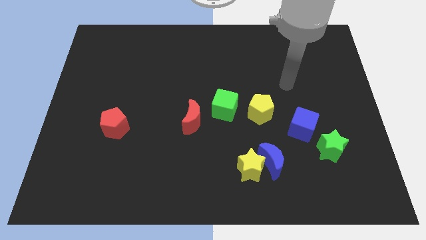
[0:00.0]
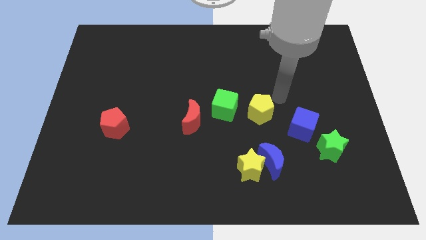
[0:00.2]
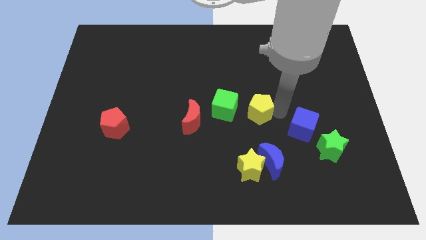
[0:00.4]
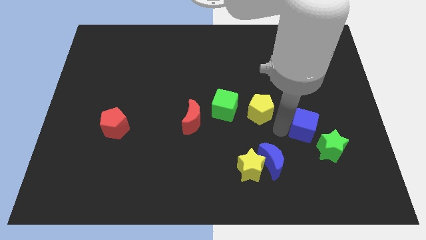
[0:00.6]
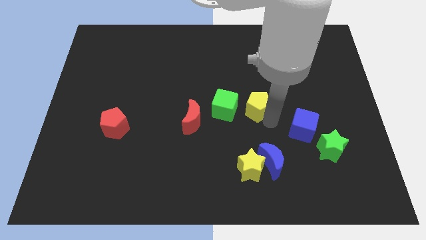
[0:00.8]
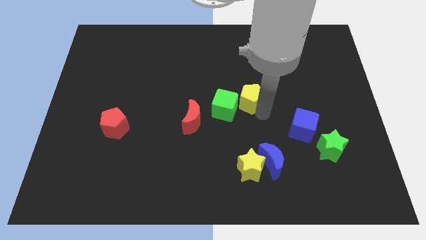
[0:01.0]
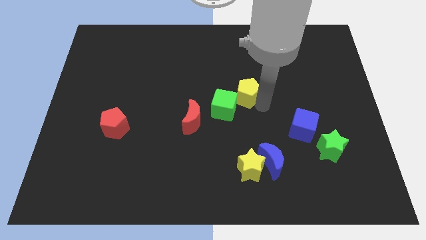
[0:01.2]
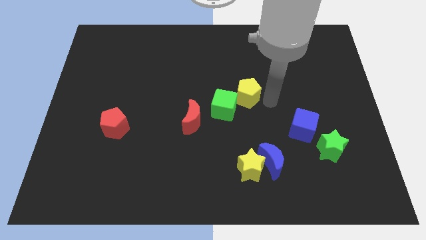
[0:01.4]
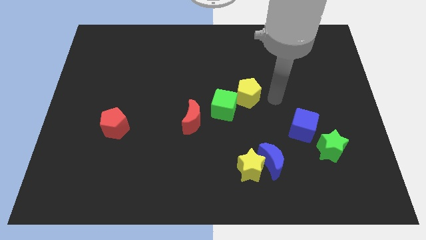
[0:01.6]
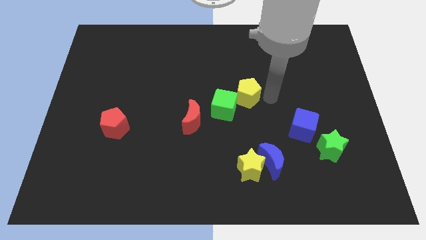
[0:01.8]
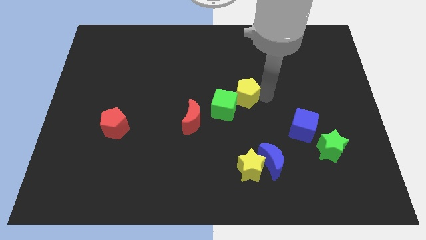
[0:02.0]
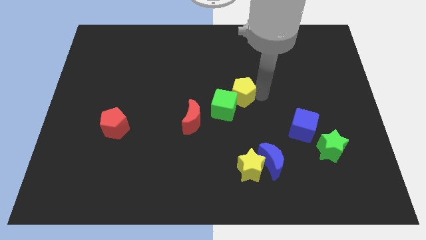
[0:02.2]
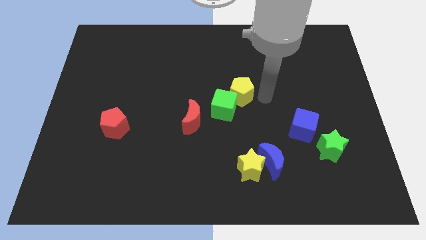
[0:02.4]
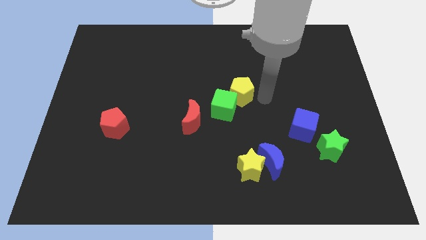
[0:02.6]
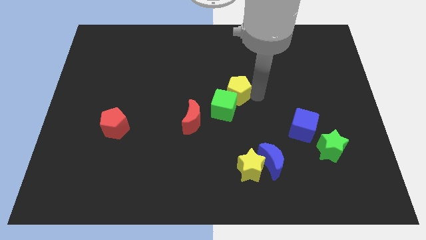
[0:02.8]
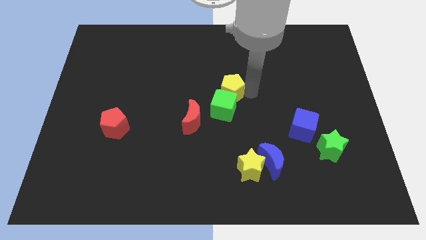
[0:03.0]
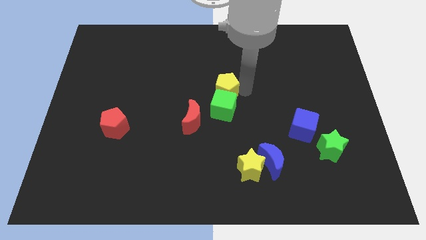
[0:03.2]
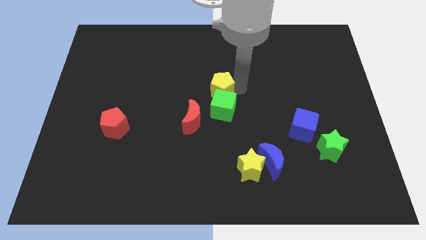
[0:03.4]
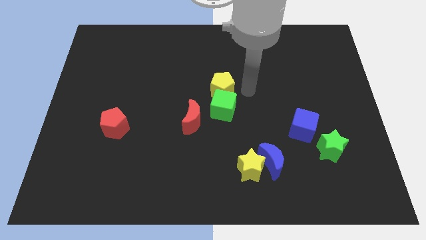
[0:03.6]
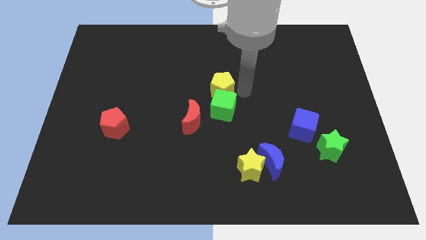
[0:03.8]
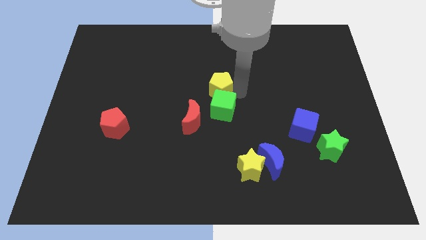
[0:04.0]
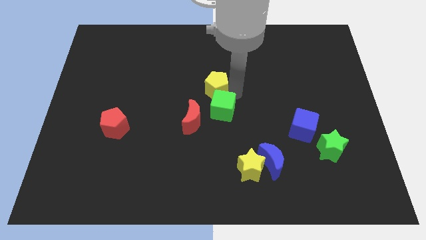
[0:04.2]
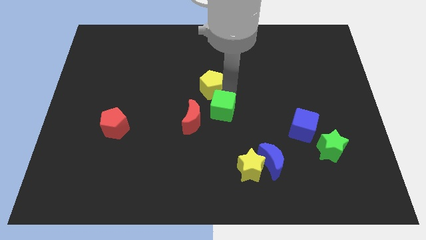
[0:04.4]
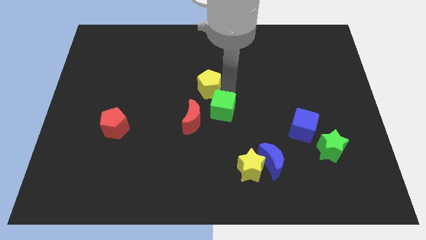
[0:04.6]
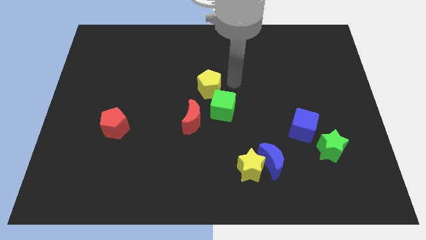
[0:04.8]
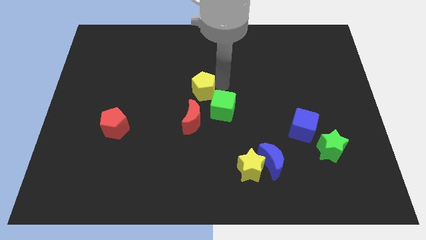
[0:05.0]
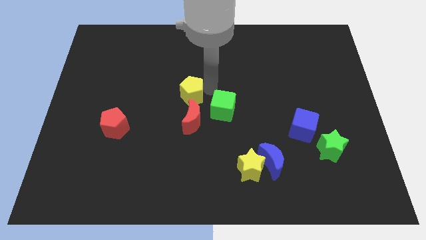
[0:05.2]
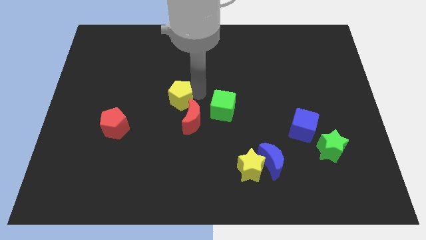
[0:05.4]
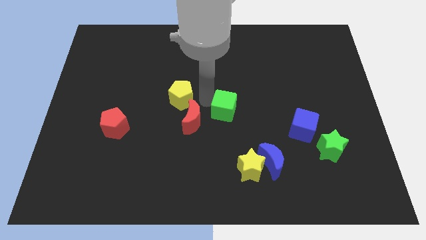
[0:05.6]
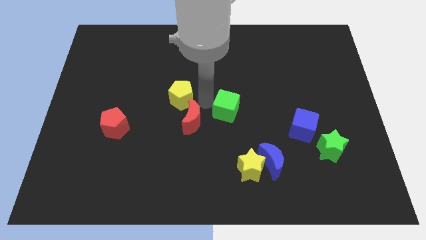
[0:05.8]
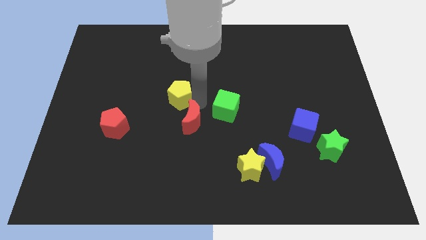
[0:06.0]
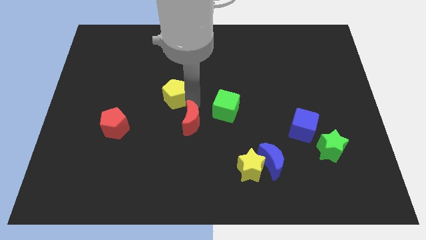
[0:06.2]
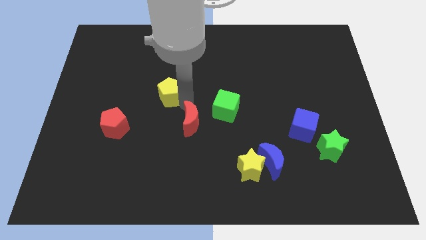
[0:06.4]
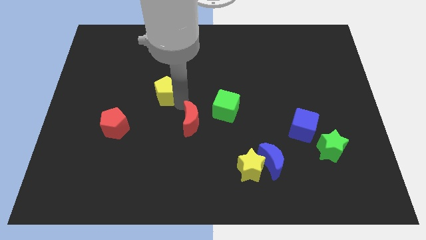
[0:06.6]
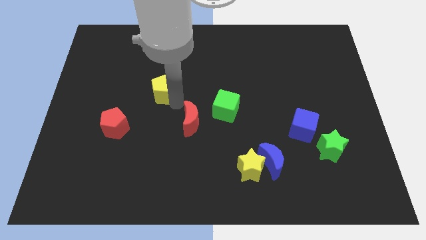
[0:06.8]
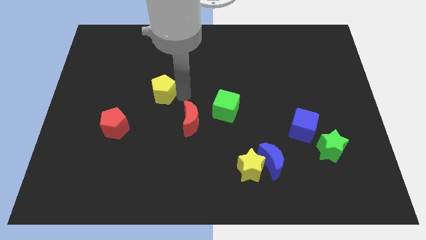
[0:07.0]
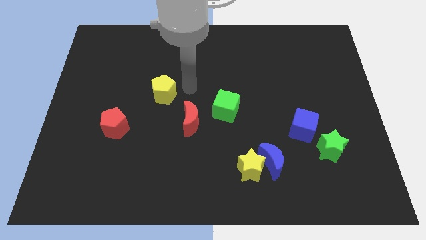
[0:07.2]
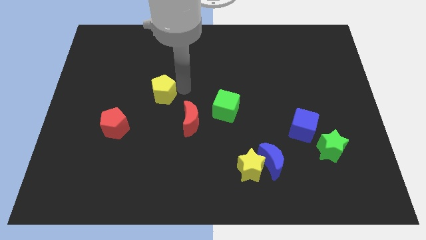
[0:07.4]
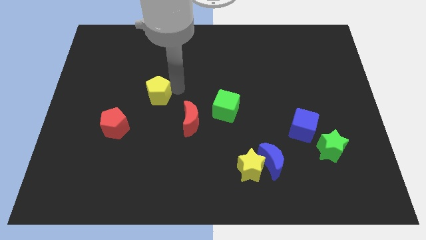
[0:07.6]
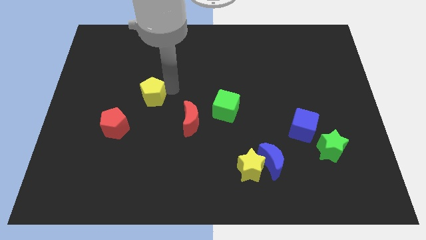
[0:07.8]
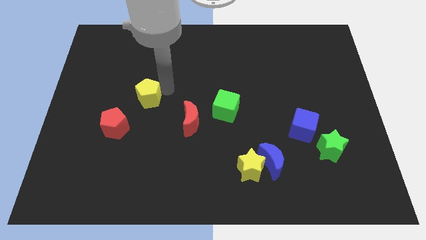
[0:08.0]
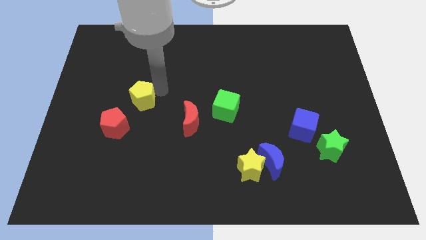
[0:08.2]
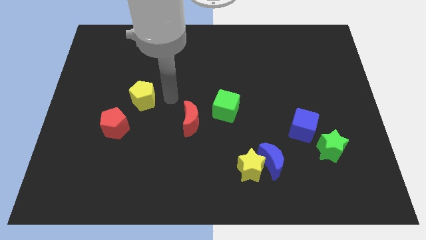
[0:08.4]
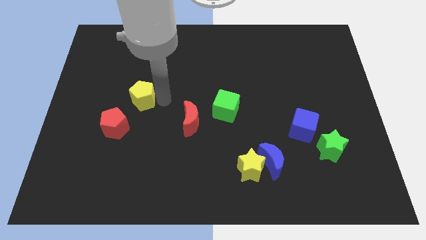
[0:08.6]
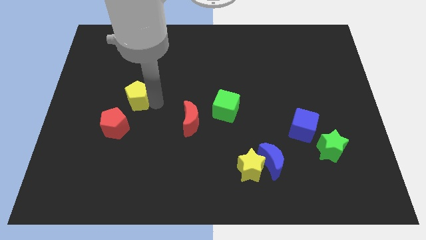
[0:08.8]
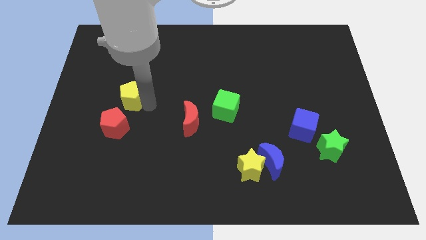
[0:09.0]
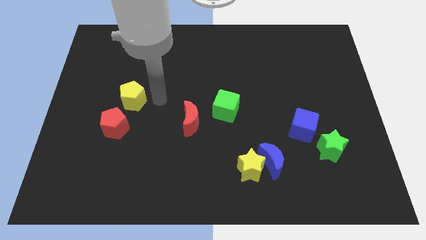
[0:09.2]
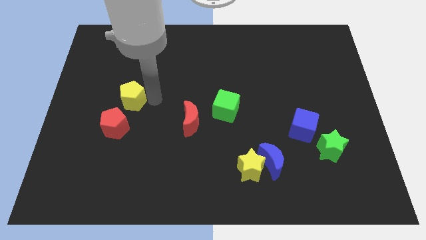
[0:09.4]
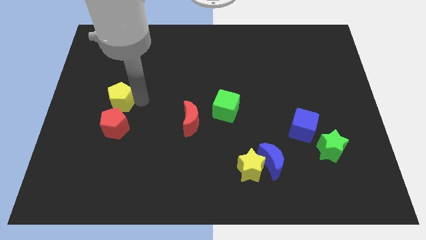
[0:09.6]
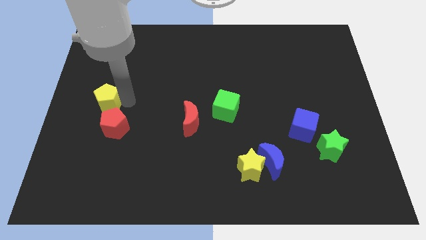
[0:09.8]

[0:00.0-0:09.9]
move the yellow pentagon to the left side

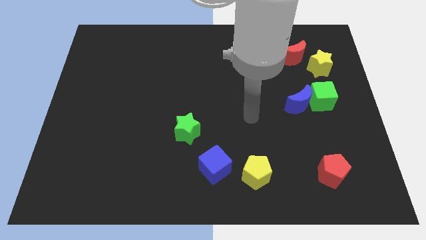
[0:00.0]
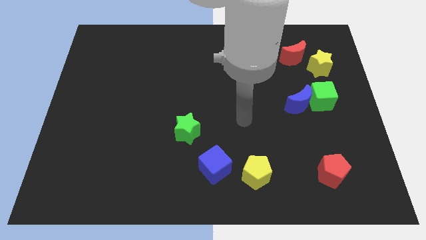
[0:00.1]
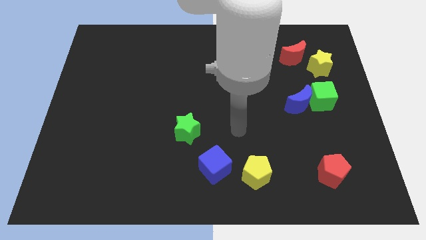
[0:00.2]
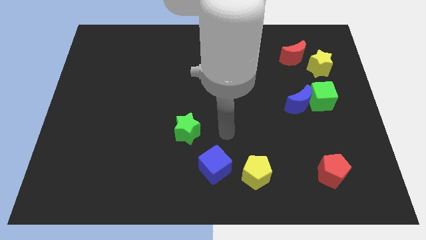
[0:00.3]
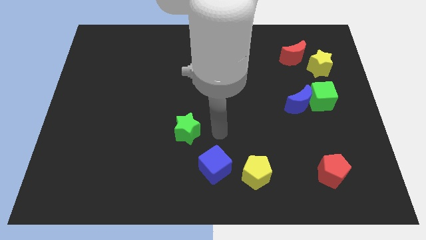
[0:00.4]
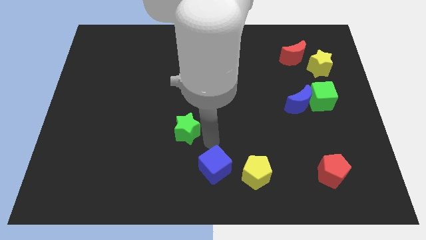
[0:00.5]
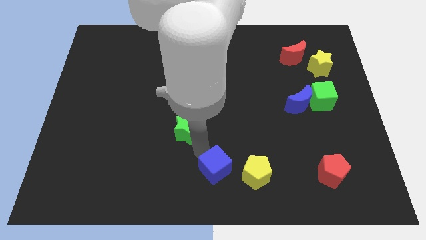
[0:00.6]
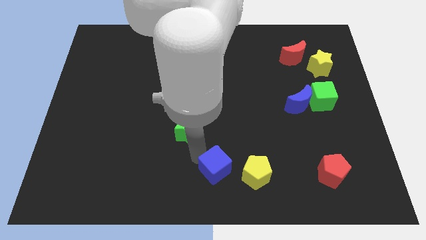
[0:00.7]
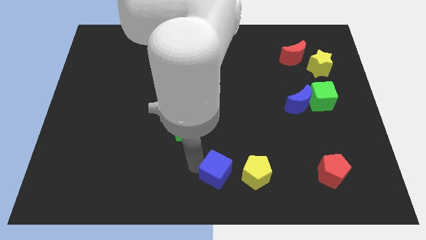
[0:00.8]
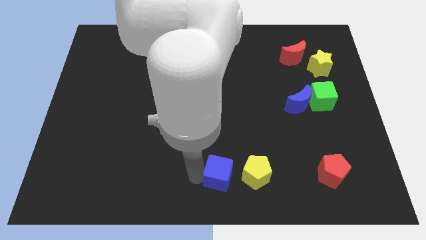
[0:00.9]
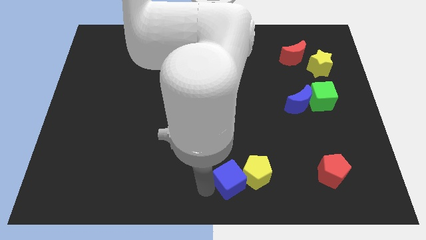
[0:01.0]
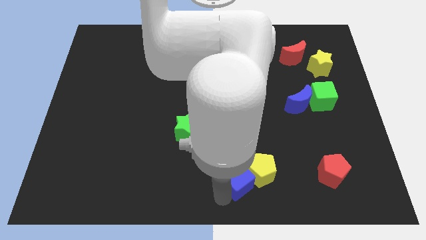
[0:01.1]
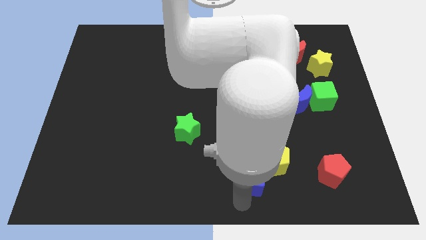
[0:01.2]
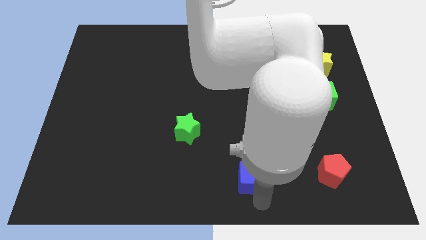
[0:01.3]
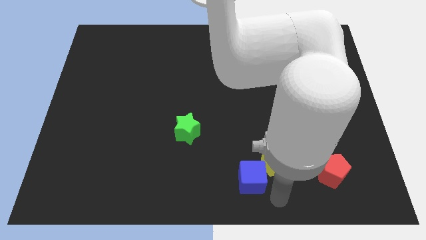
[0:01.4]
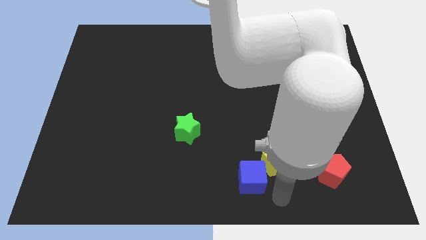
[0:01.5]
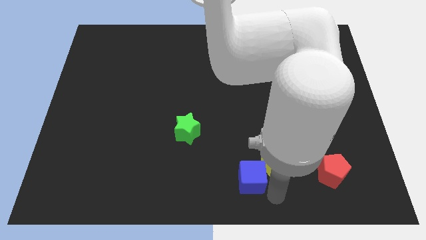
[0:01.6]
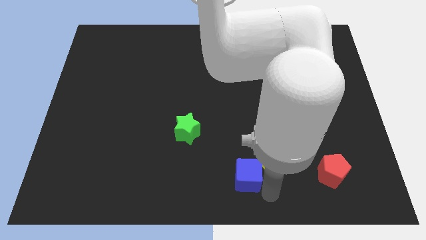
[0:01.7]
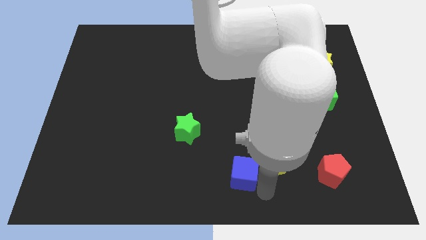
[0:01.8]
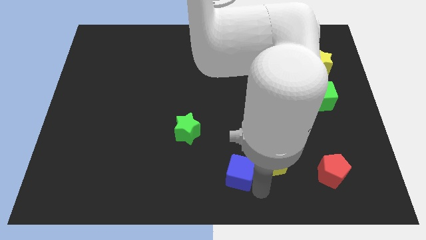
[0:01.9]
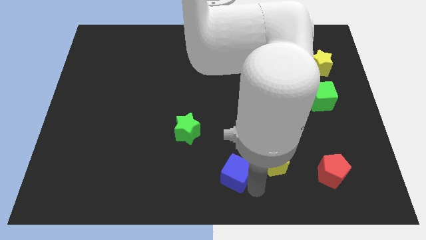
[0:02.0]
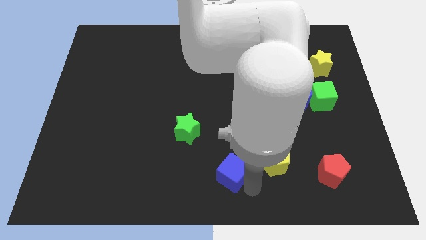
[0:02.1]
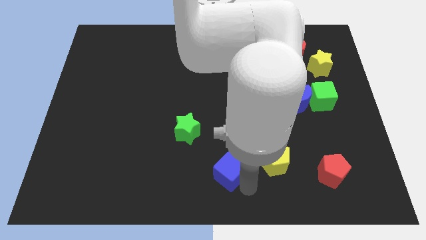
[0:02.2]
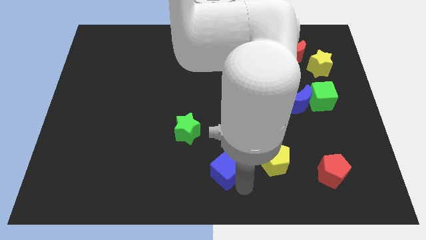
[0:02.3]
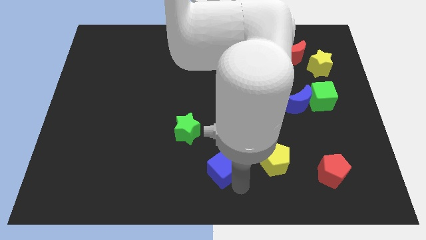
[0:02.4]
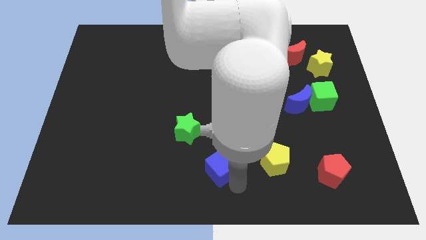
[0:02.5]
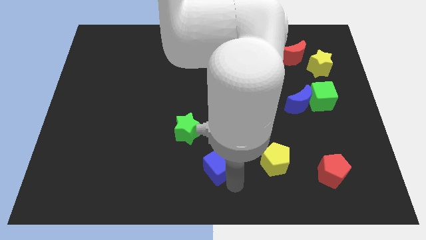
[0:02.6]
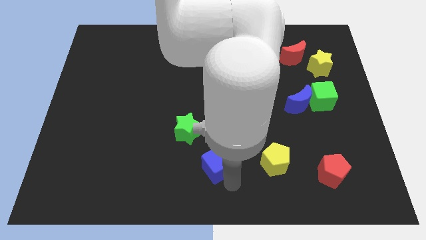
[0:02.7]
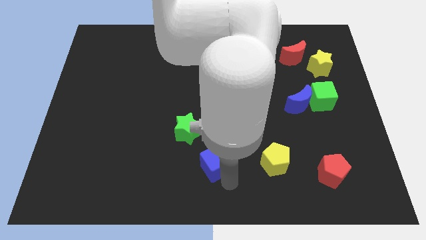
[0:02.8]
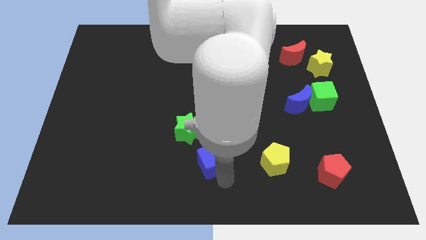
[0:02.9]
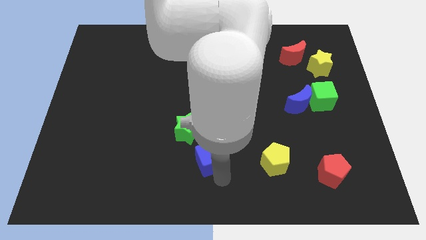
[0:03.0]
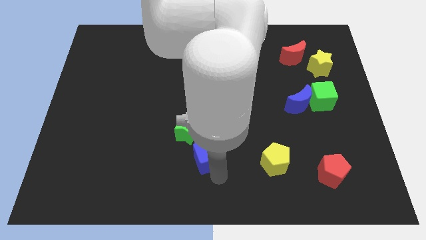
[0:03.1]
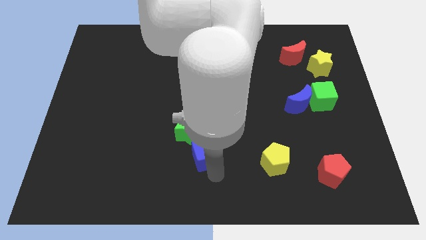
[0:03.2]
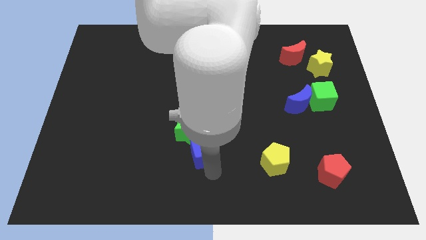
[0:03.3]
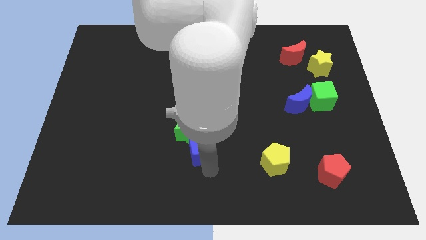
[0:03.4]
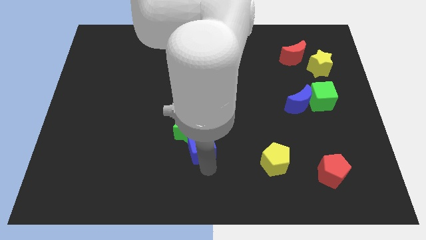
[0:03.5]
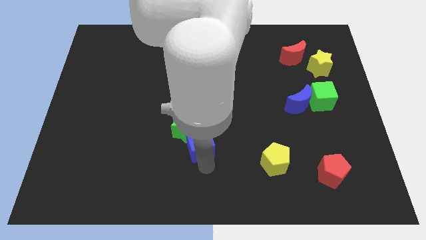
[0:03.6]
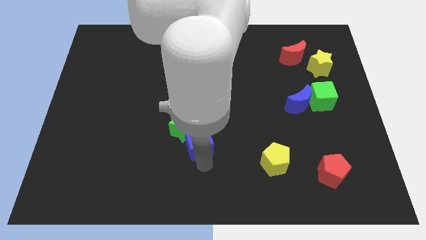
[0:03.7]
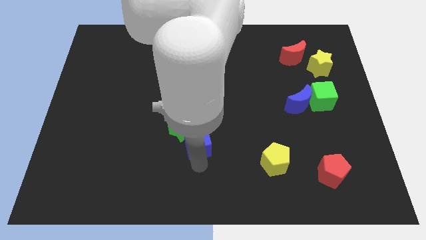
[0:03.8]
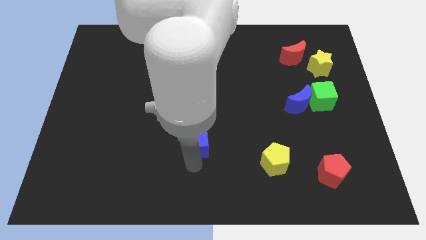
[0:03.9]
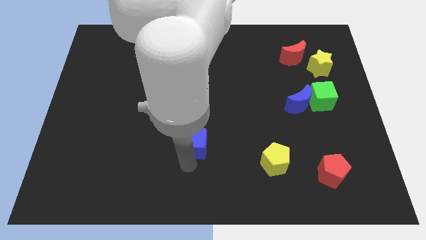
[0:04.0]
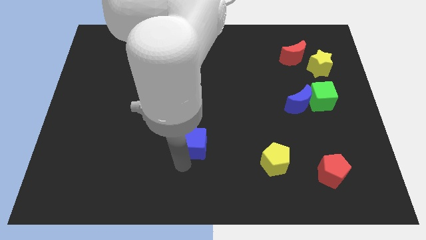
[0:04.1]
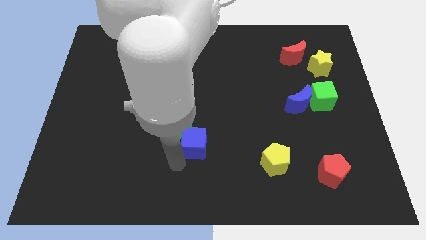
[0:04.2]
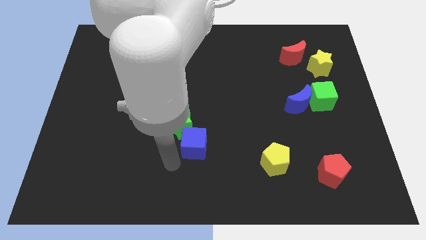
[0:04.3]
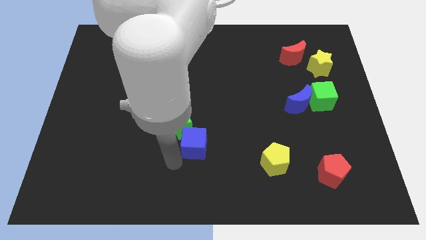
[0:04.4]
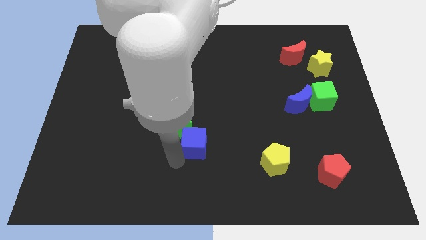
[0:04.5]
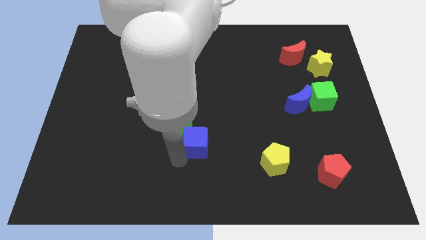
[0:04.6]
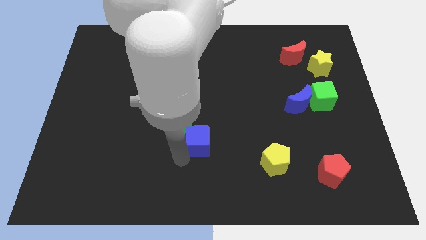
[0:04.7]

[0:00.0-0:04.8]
push the blue cube to the center
